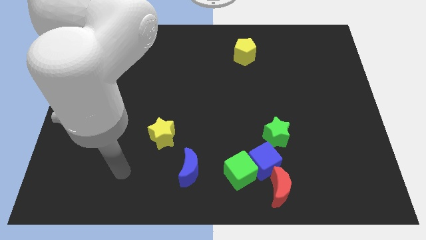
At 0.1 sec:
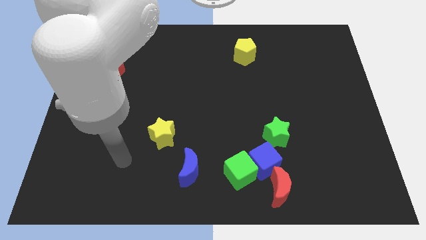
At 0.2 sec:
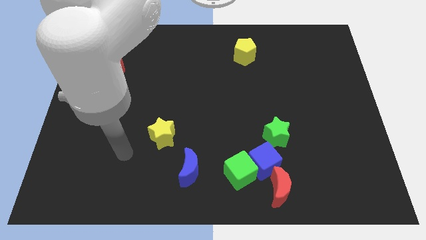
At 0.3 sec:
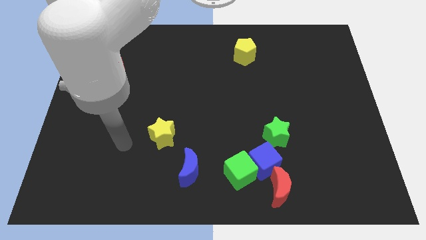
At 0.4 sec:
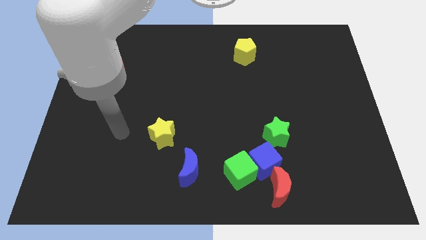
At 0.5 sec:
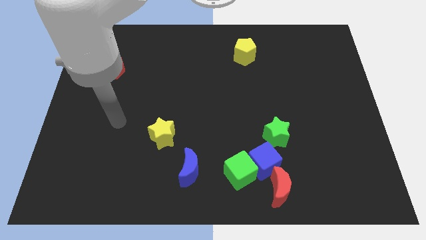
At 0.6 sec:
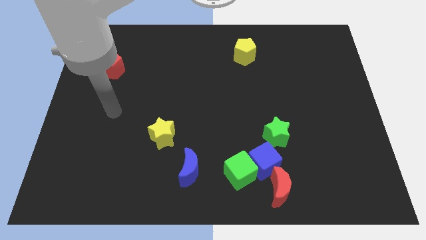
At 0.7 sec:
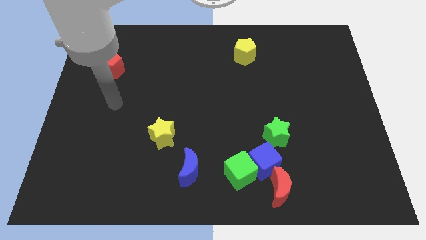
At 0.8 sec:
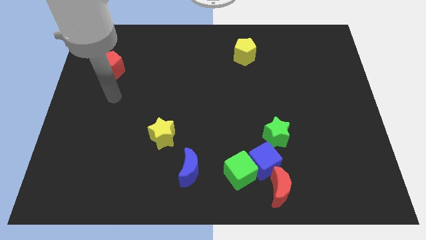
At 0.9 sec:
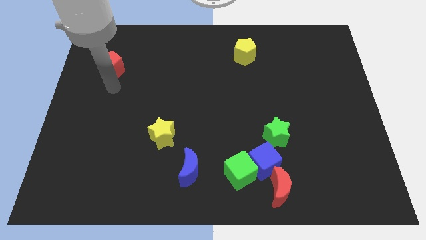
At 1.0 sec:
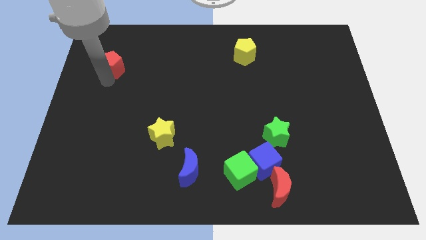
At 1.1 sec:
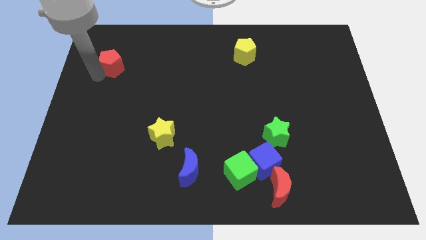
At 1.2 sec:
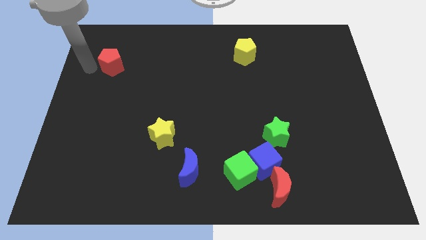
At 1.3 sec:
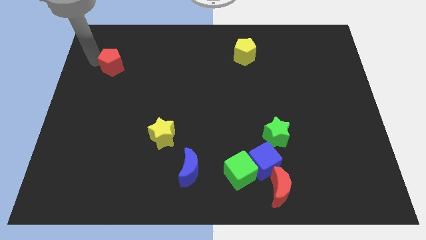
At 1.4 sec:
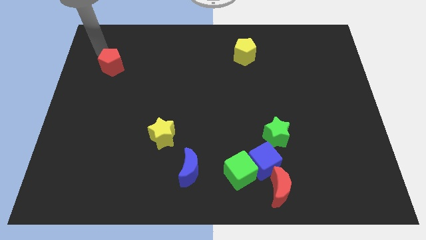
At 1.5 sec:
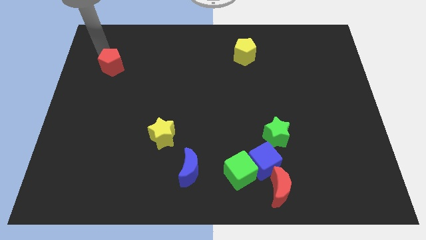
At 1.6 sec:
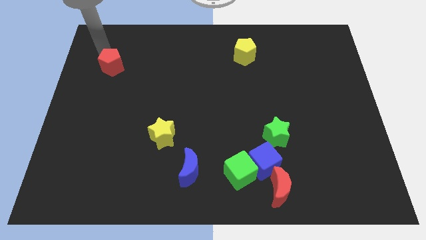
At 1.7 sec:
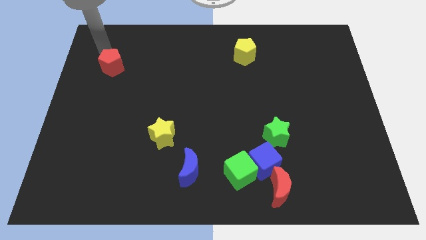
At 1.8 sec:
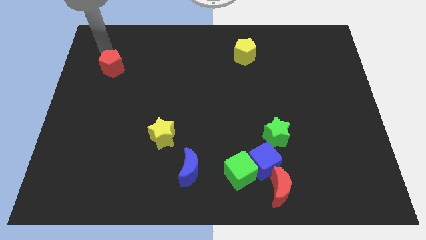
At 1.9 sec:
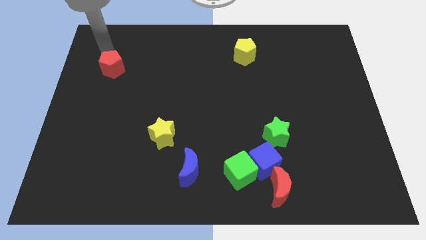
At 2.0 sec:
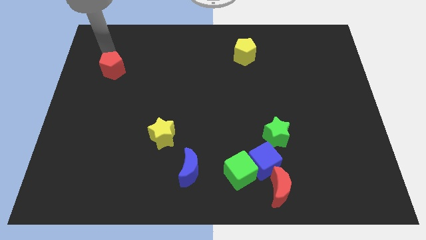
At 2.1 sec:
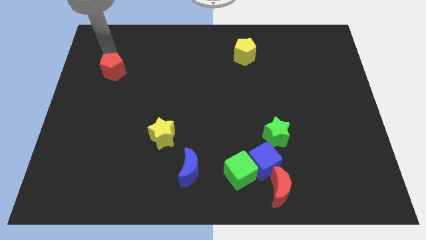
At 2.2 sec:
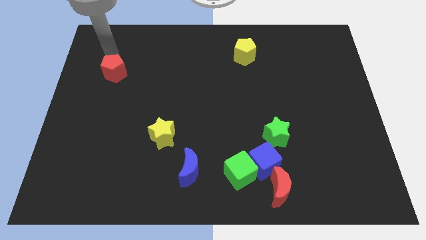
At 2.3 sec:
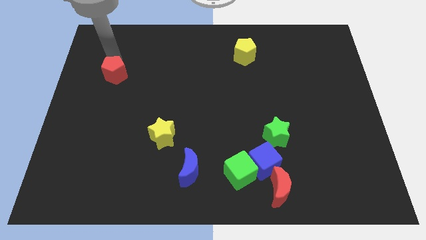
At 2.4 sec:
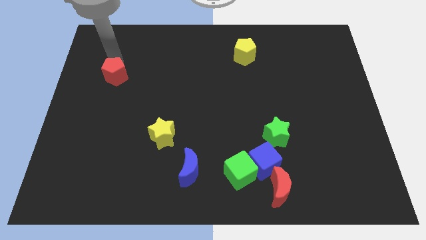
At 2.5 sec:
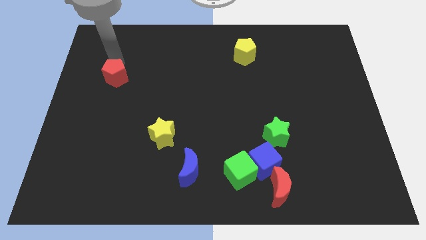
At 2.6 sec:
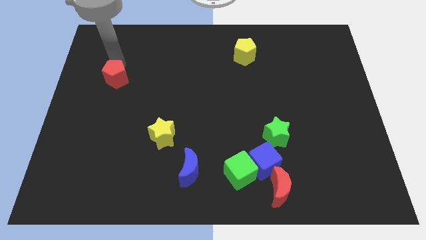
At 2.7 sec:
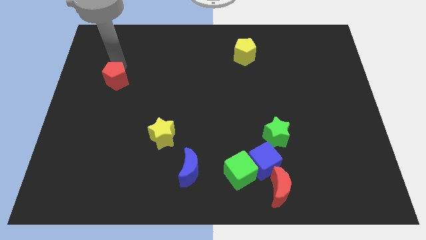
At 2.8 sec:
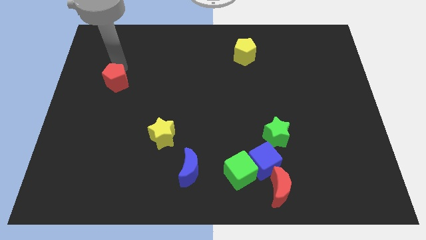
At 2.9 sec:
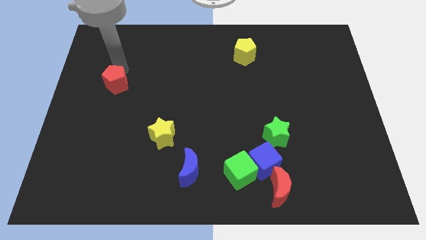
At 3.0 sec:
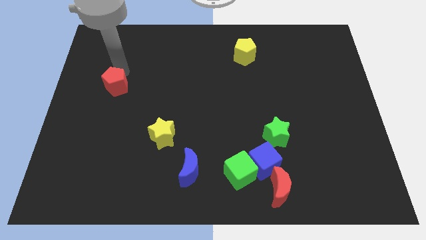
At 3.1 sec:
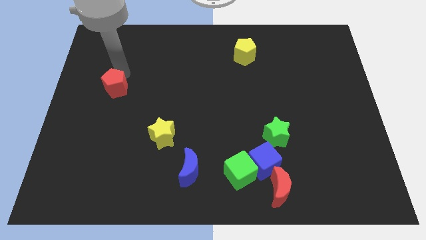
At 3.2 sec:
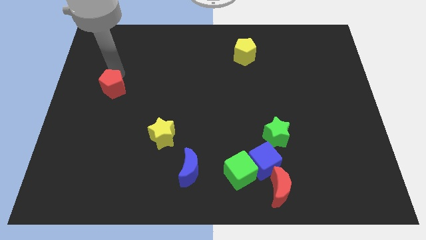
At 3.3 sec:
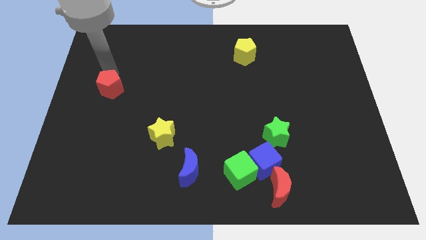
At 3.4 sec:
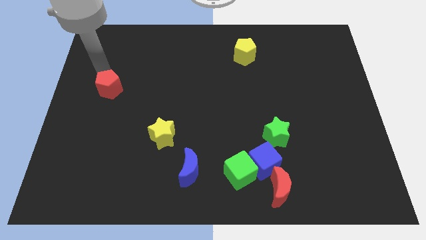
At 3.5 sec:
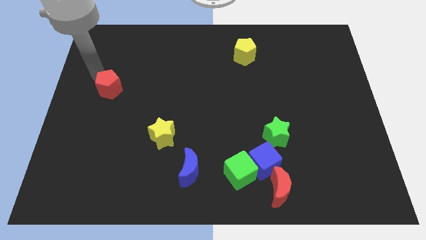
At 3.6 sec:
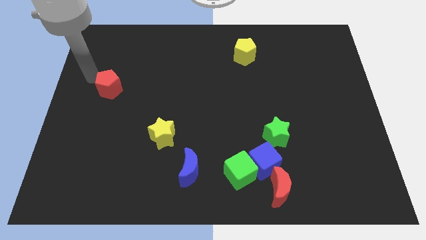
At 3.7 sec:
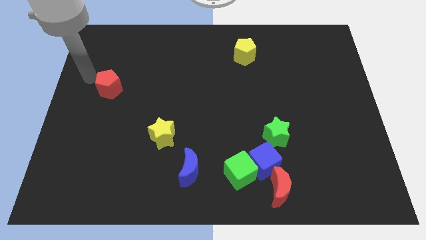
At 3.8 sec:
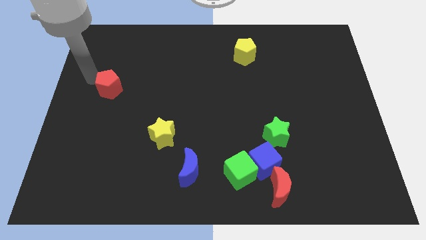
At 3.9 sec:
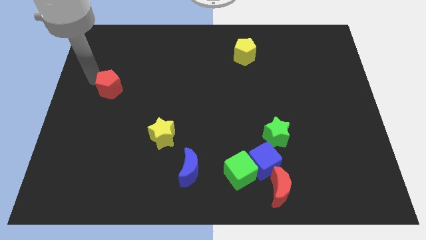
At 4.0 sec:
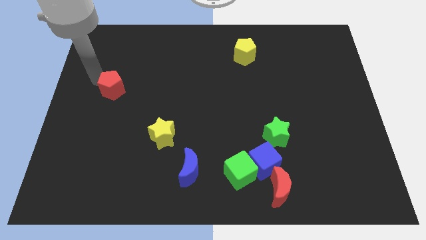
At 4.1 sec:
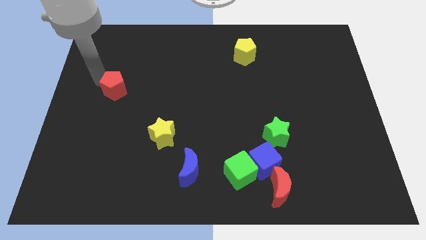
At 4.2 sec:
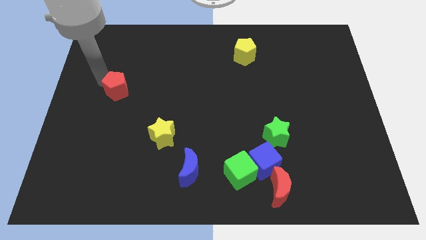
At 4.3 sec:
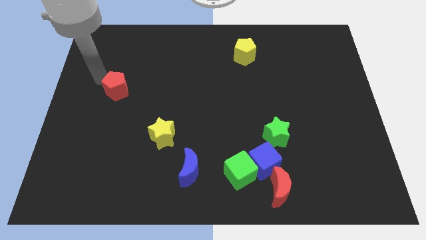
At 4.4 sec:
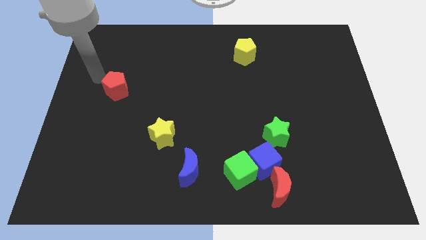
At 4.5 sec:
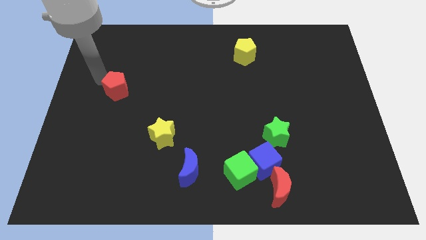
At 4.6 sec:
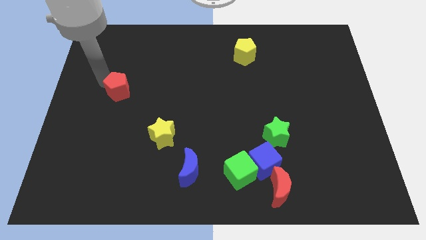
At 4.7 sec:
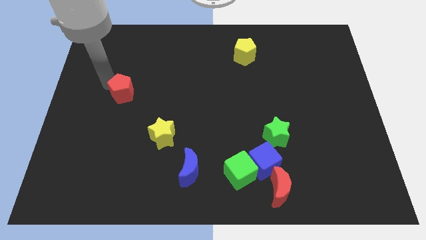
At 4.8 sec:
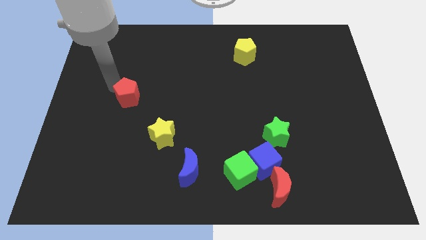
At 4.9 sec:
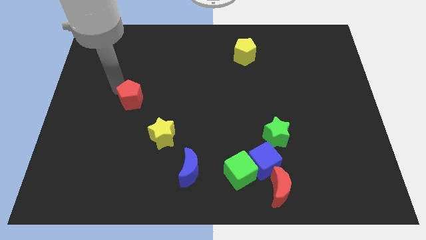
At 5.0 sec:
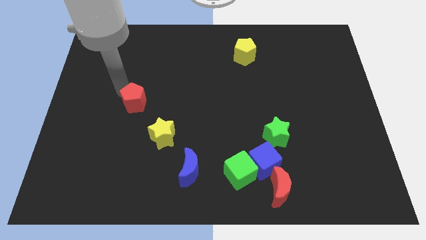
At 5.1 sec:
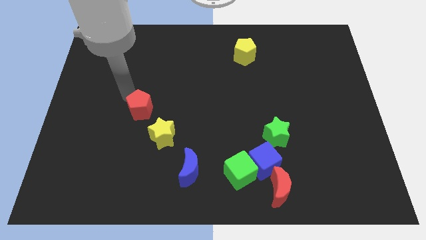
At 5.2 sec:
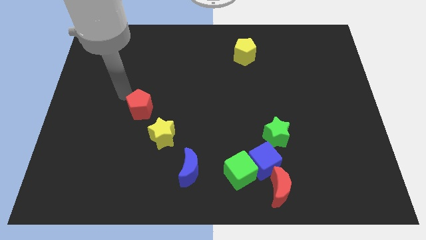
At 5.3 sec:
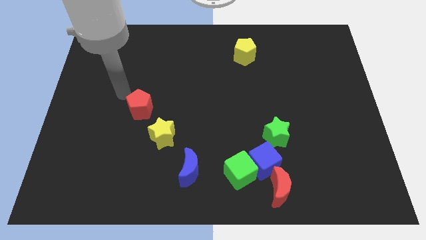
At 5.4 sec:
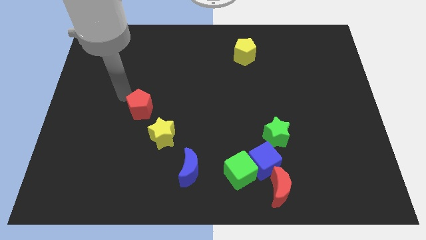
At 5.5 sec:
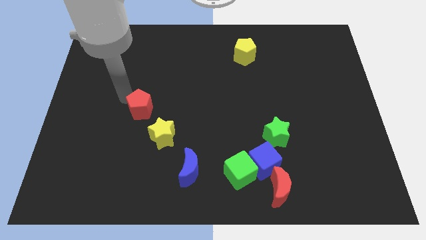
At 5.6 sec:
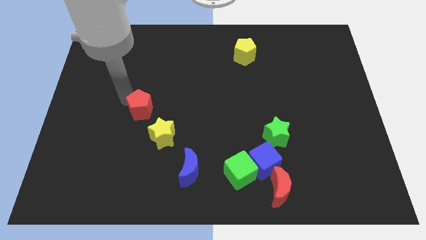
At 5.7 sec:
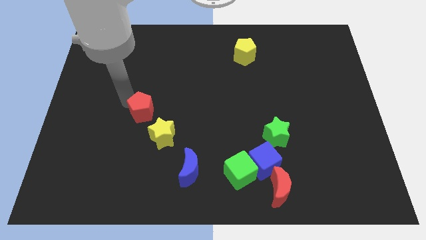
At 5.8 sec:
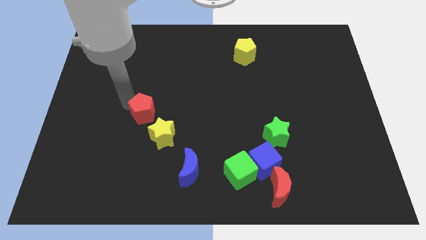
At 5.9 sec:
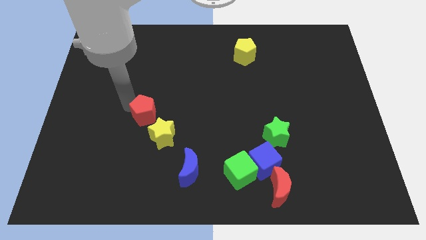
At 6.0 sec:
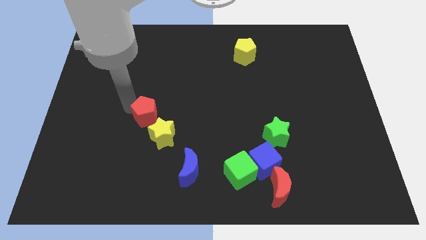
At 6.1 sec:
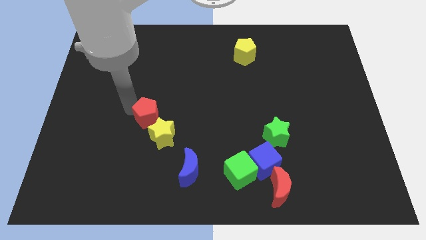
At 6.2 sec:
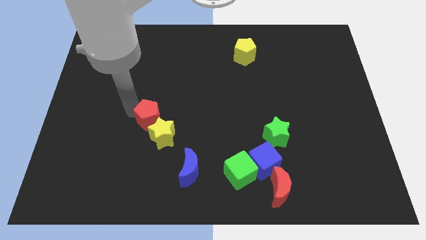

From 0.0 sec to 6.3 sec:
push the red pentagon towards the yellow star
